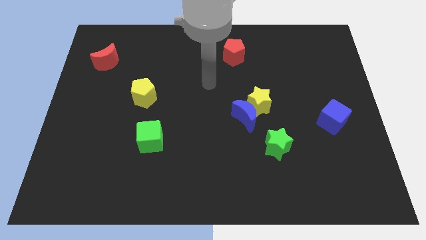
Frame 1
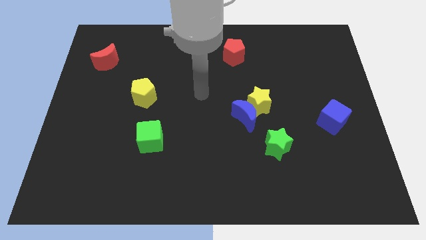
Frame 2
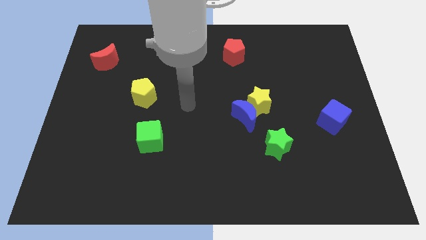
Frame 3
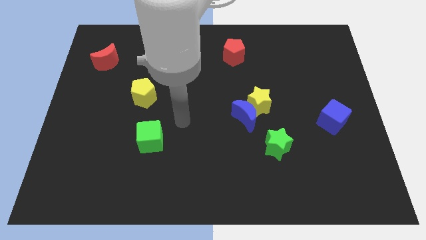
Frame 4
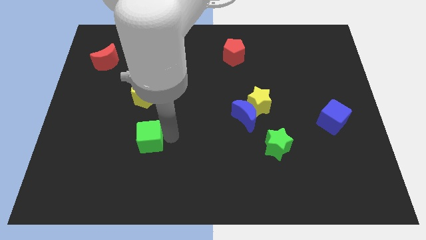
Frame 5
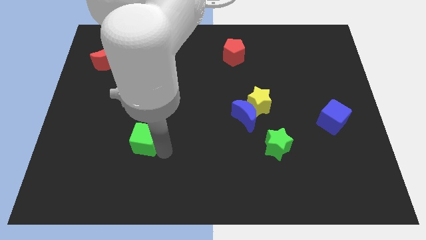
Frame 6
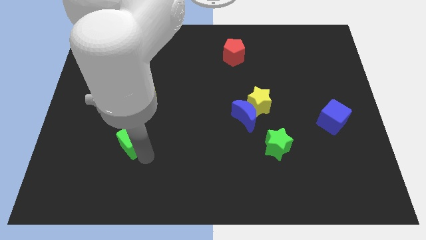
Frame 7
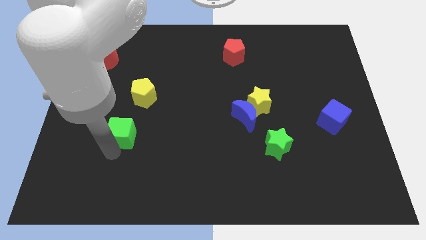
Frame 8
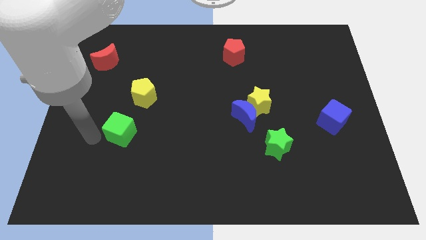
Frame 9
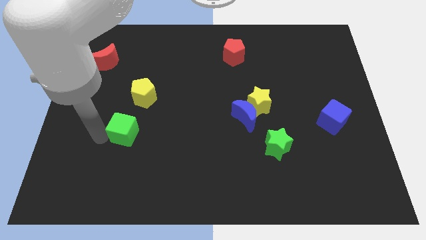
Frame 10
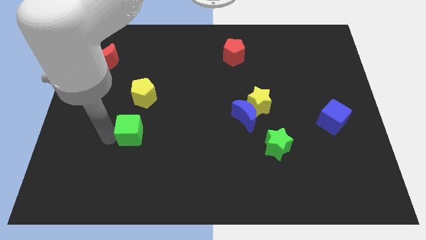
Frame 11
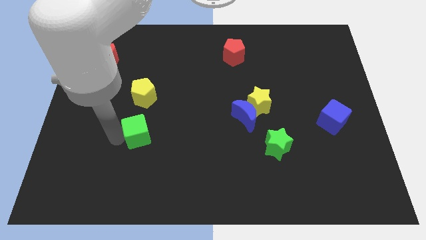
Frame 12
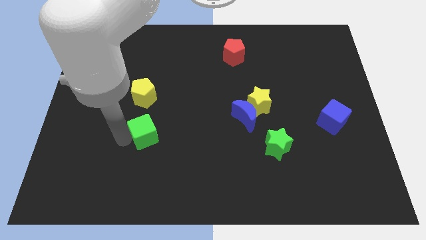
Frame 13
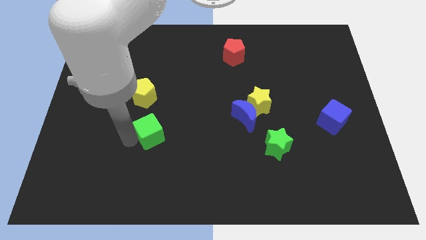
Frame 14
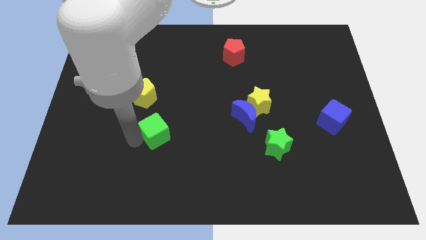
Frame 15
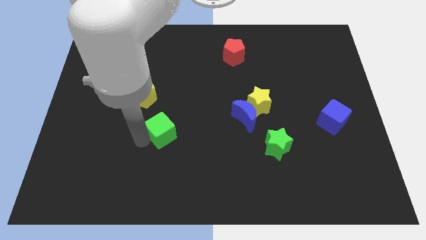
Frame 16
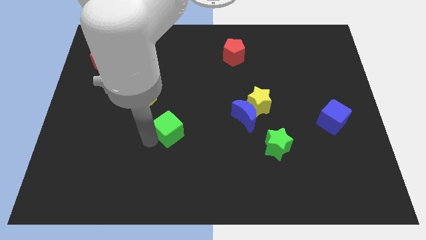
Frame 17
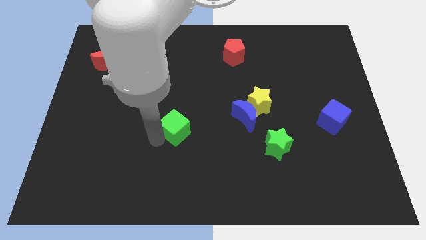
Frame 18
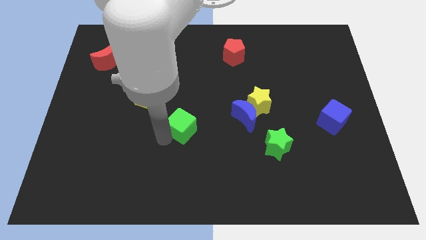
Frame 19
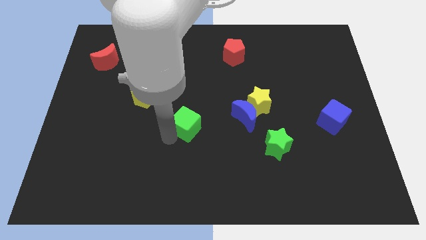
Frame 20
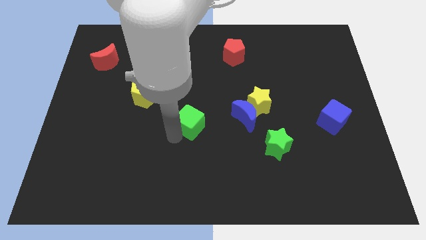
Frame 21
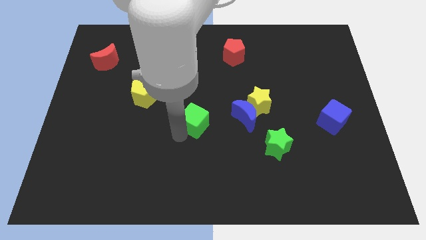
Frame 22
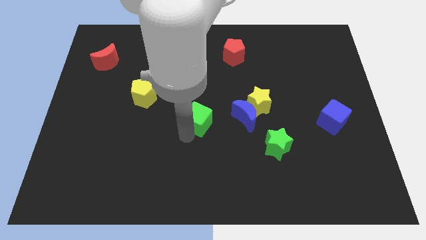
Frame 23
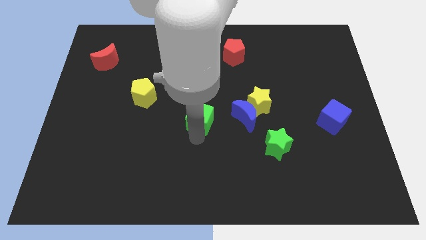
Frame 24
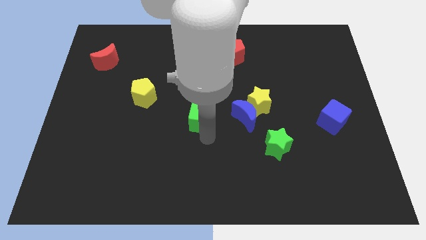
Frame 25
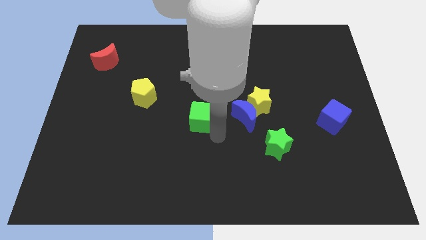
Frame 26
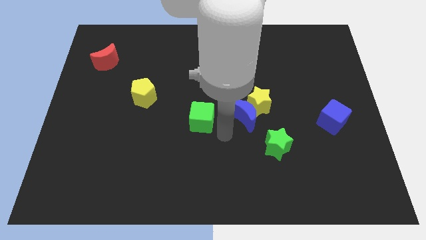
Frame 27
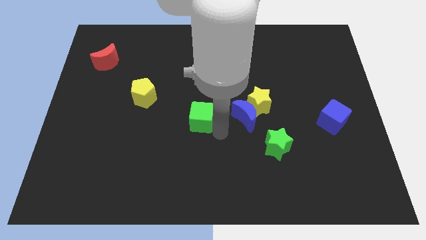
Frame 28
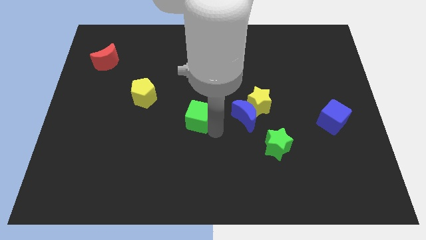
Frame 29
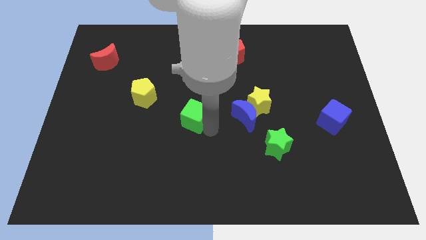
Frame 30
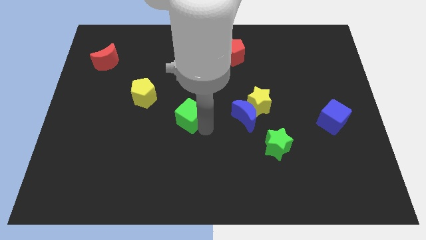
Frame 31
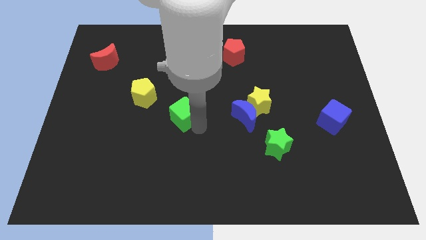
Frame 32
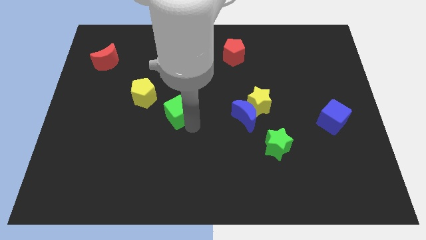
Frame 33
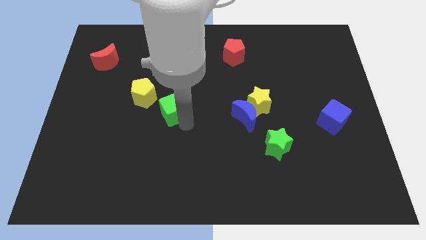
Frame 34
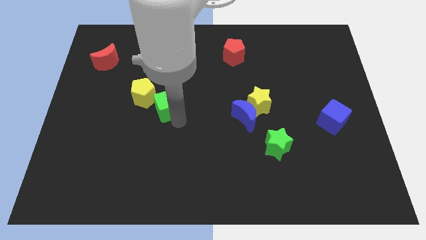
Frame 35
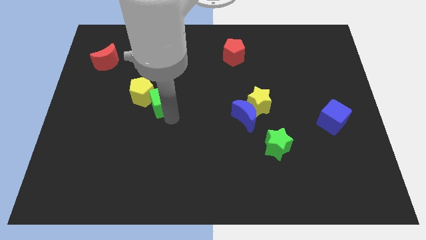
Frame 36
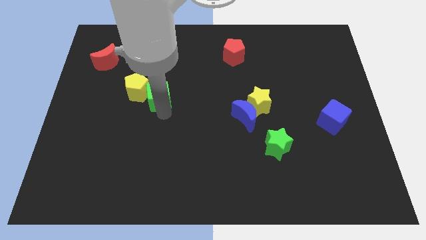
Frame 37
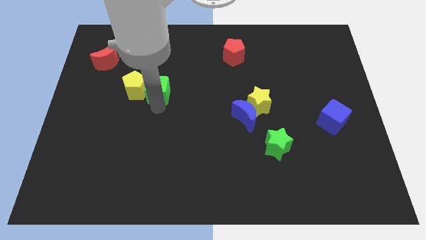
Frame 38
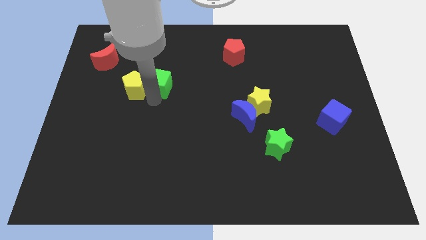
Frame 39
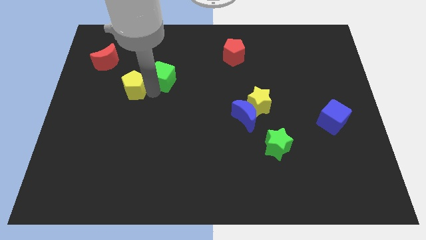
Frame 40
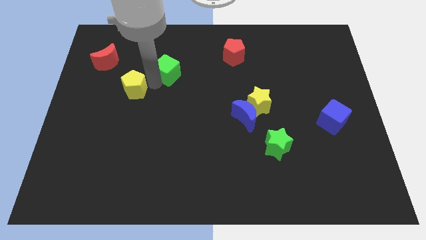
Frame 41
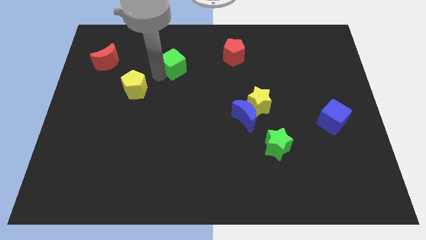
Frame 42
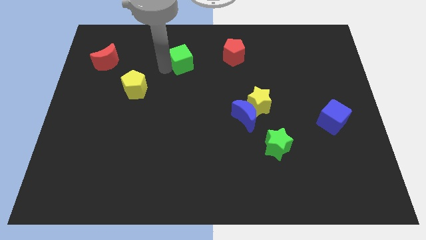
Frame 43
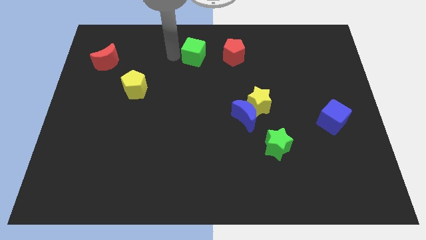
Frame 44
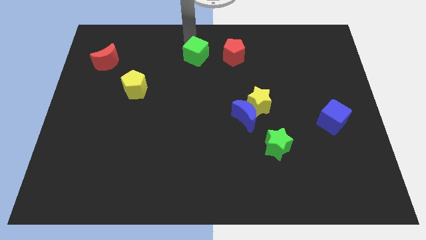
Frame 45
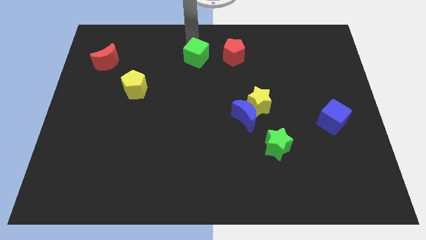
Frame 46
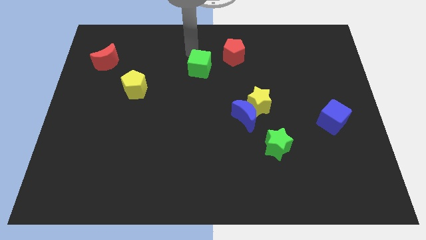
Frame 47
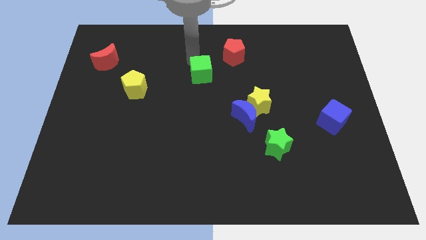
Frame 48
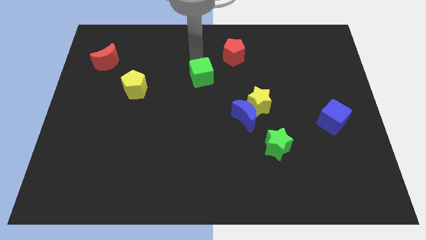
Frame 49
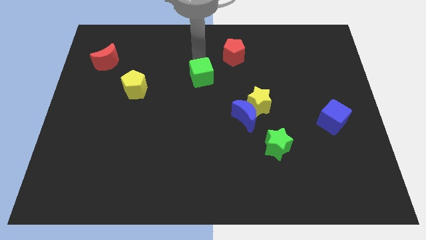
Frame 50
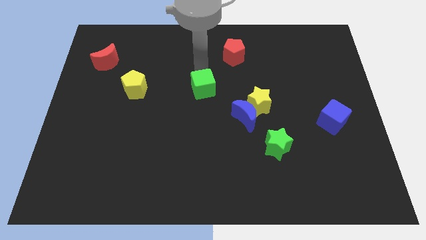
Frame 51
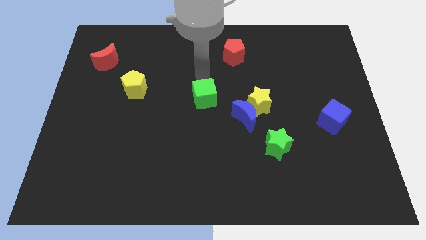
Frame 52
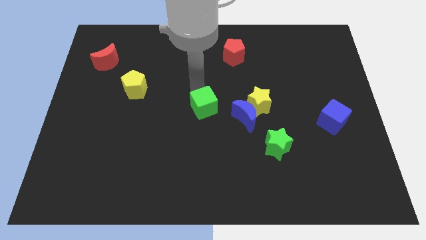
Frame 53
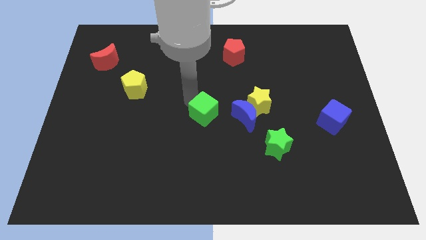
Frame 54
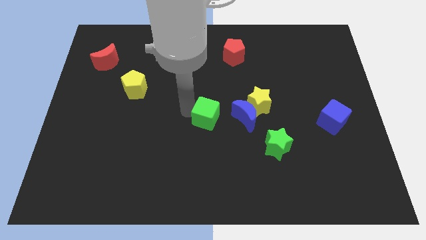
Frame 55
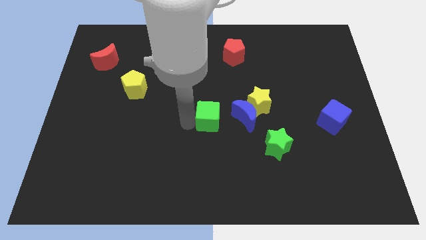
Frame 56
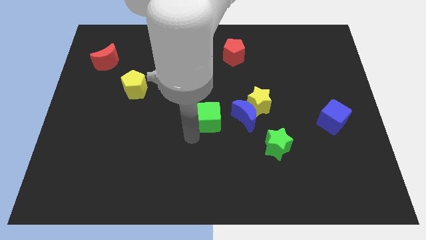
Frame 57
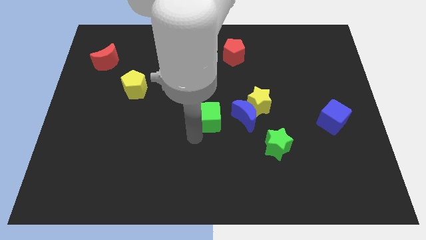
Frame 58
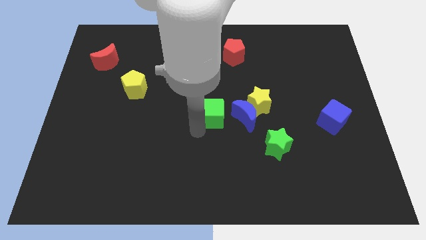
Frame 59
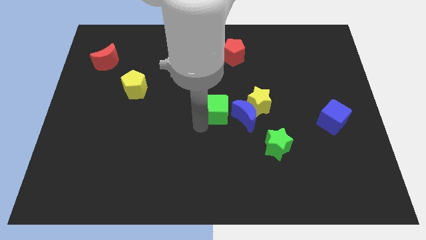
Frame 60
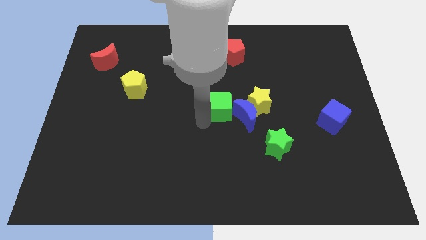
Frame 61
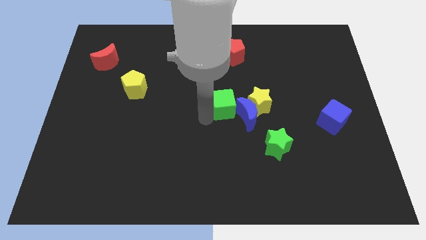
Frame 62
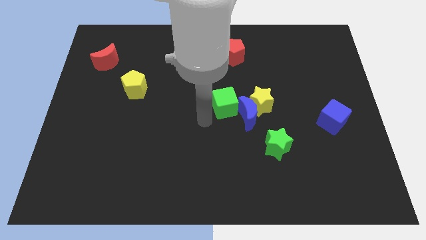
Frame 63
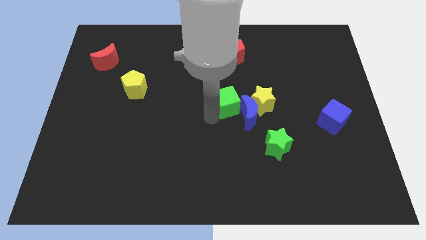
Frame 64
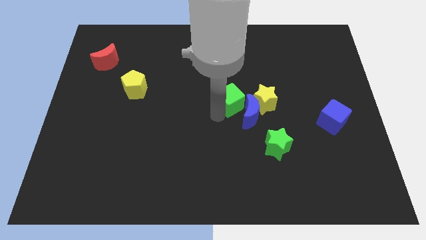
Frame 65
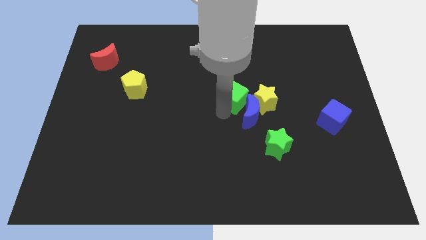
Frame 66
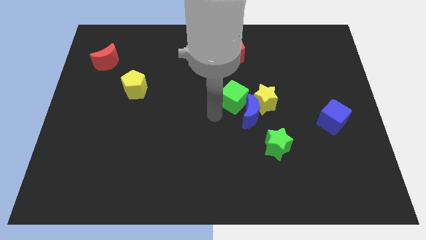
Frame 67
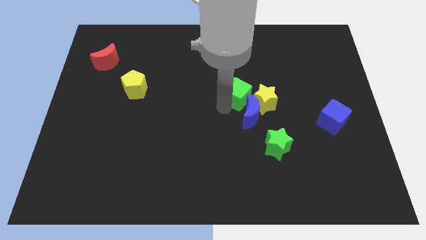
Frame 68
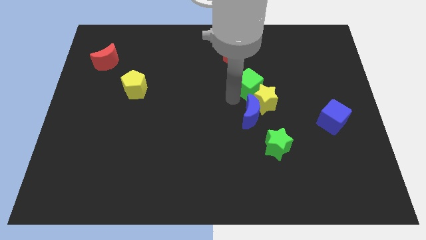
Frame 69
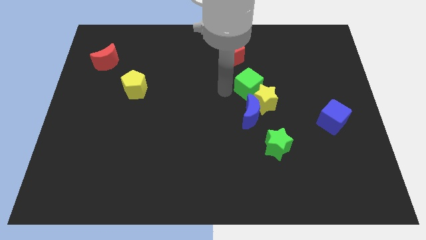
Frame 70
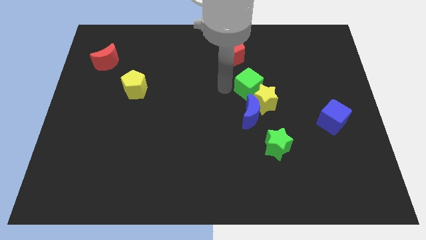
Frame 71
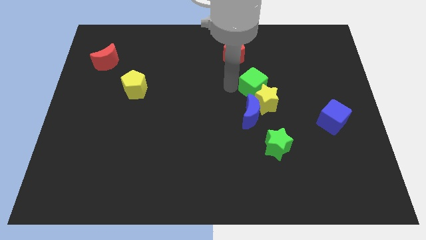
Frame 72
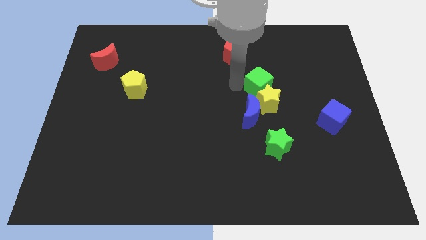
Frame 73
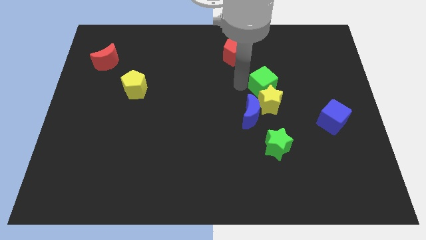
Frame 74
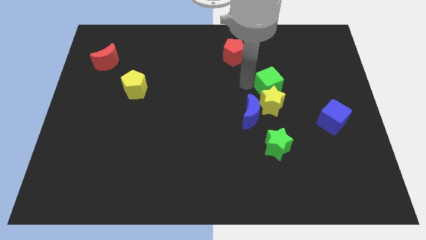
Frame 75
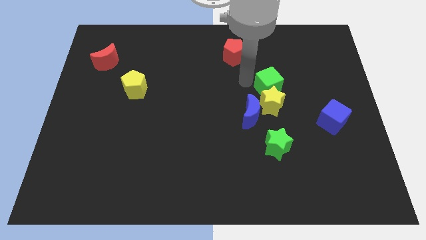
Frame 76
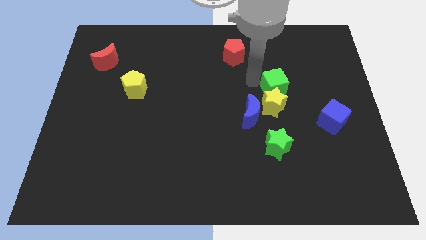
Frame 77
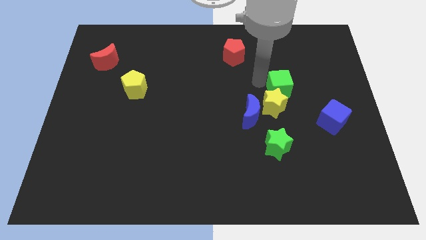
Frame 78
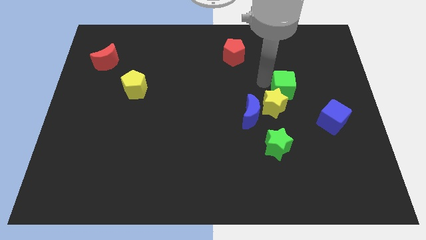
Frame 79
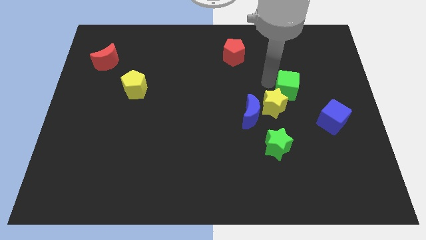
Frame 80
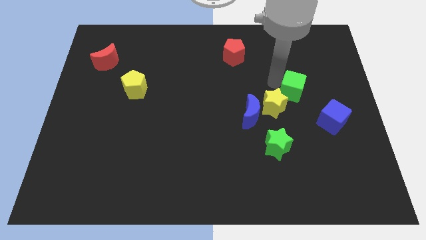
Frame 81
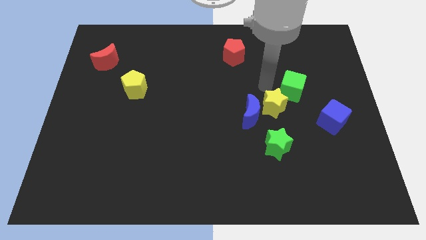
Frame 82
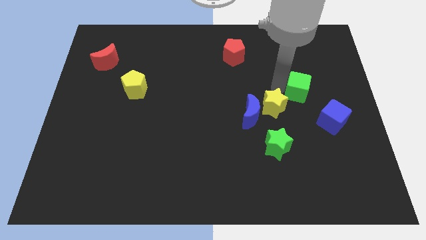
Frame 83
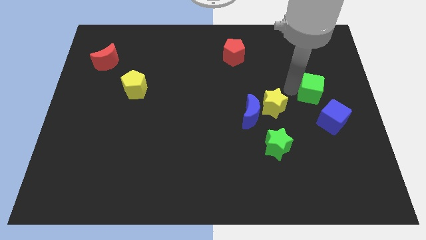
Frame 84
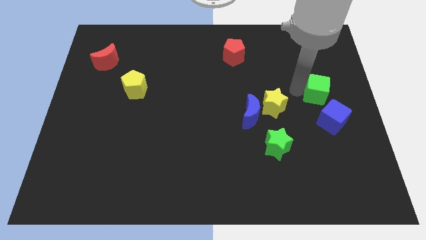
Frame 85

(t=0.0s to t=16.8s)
put the green cube to the center right
